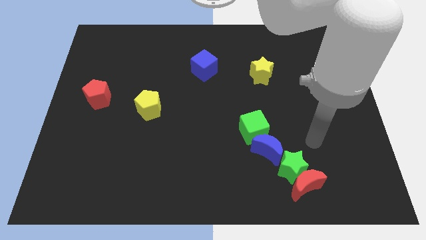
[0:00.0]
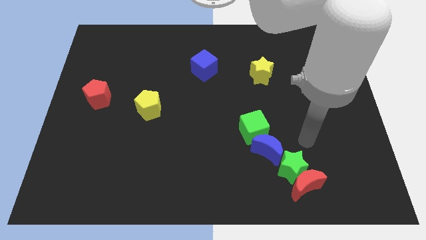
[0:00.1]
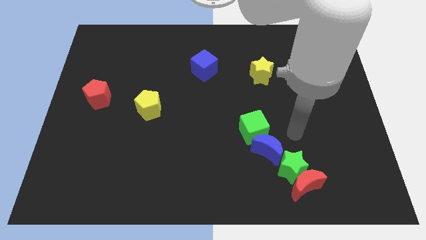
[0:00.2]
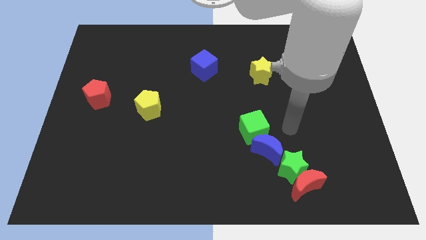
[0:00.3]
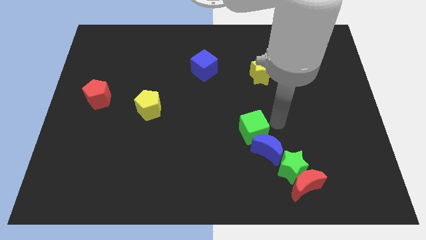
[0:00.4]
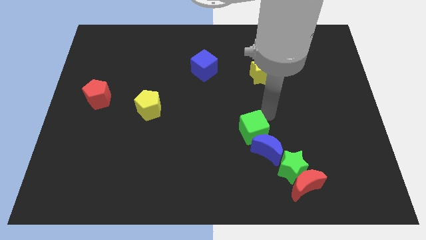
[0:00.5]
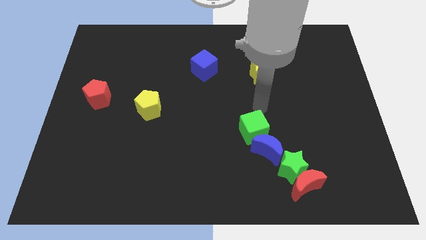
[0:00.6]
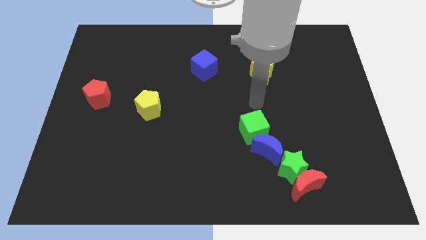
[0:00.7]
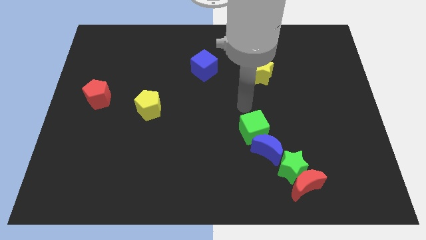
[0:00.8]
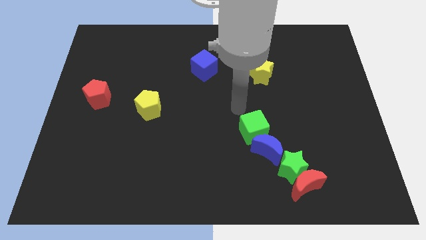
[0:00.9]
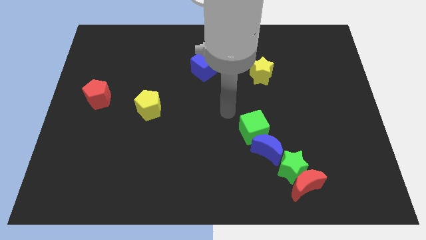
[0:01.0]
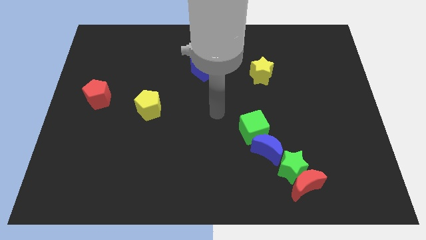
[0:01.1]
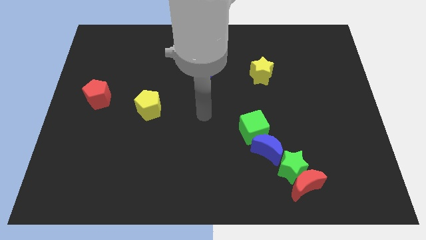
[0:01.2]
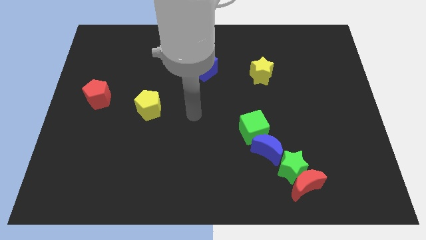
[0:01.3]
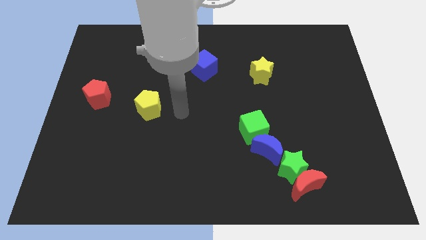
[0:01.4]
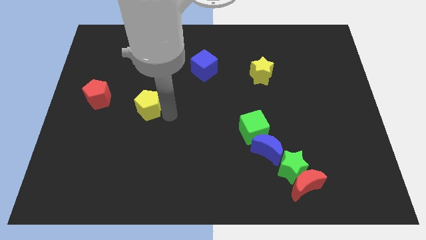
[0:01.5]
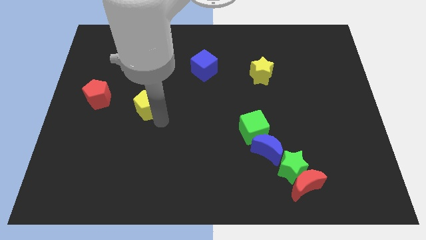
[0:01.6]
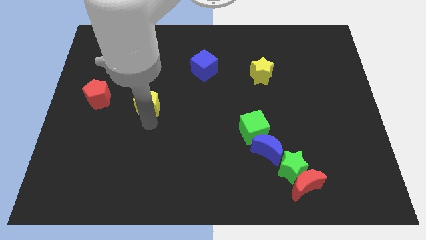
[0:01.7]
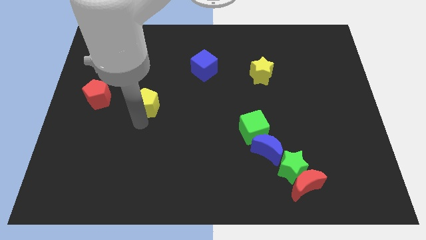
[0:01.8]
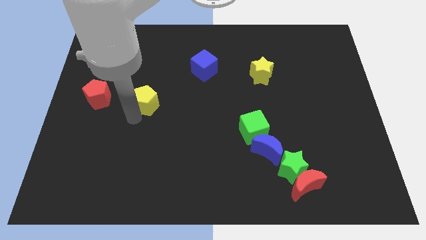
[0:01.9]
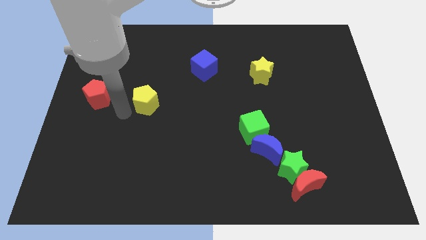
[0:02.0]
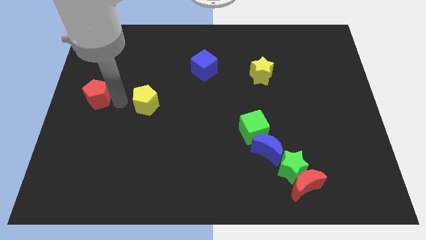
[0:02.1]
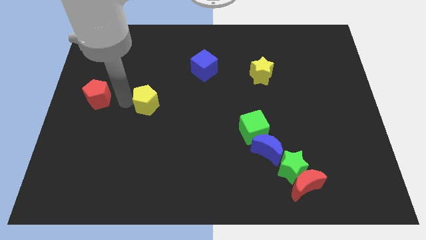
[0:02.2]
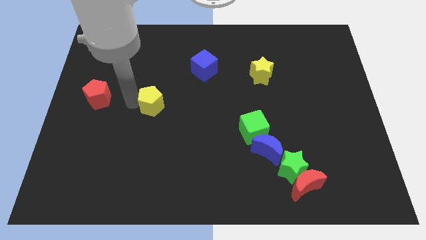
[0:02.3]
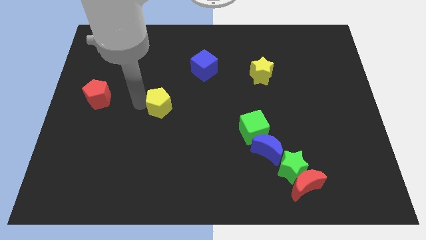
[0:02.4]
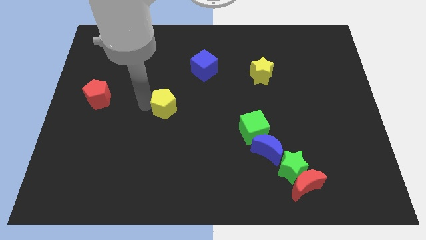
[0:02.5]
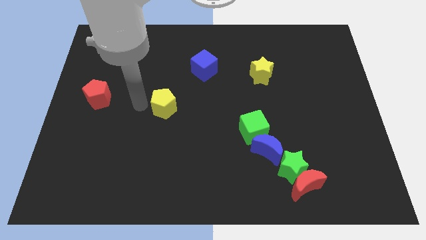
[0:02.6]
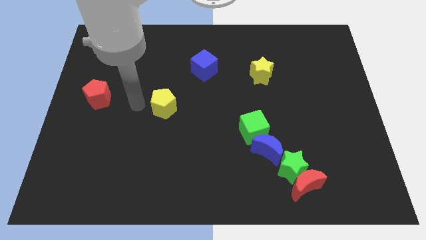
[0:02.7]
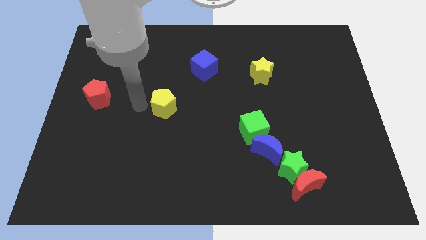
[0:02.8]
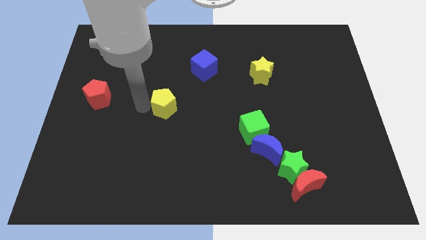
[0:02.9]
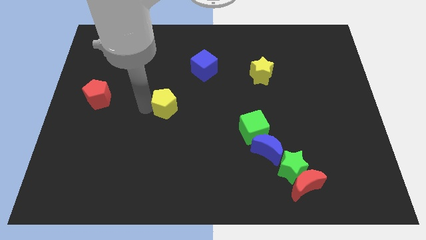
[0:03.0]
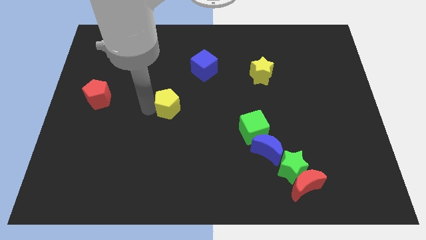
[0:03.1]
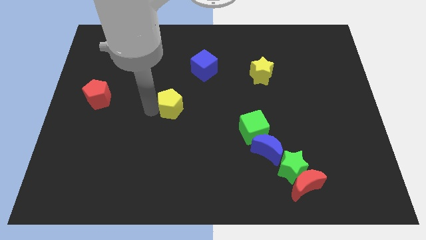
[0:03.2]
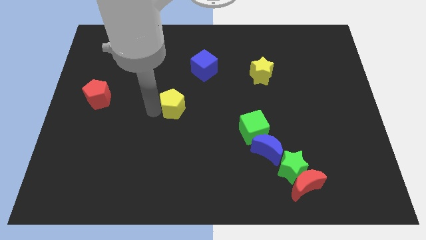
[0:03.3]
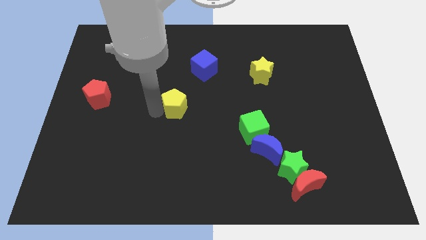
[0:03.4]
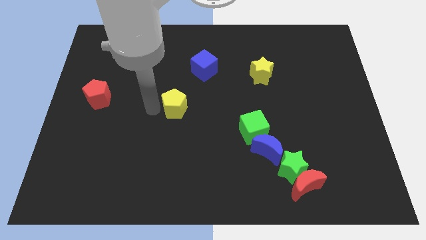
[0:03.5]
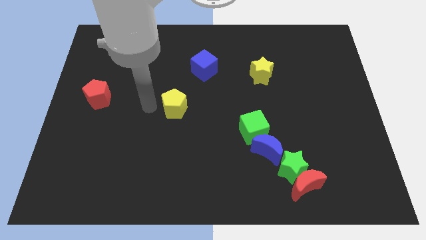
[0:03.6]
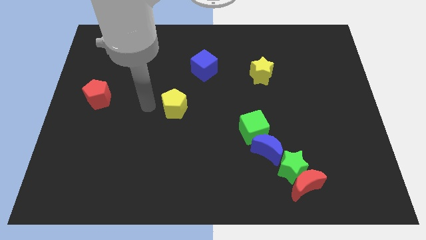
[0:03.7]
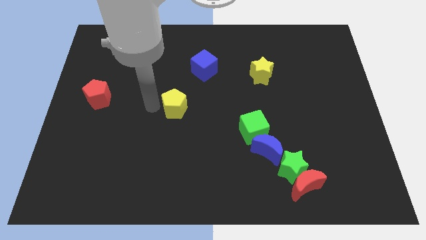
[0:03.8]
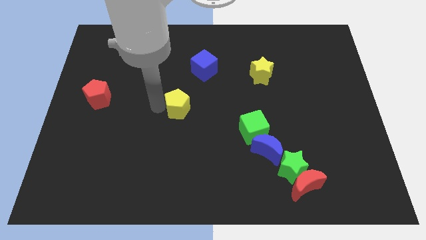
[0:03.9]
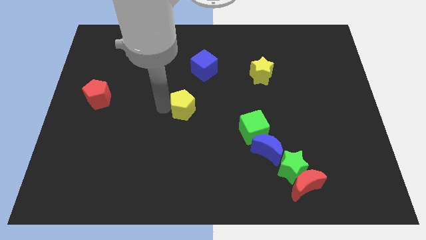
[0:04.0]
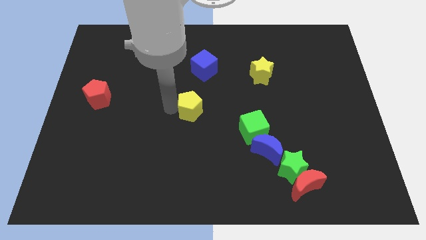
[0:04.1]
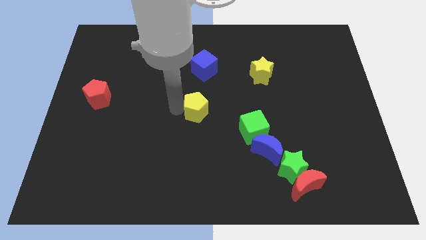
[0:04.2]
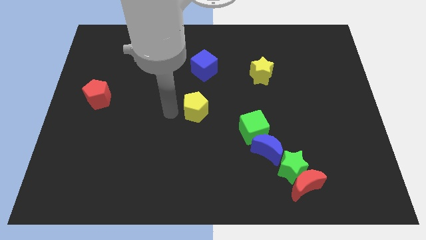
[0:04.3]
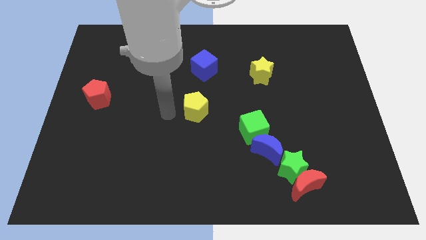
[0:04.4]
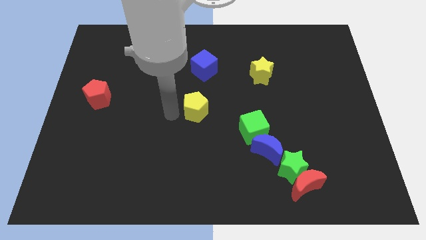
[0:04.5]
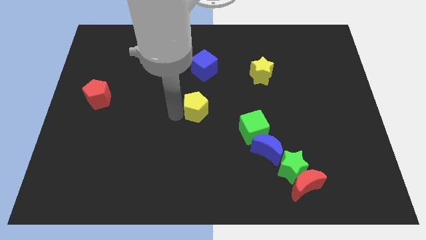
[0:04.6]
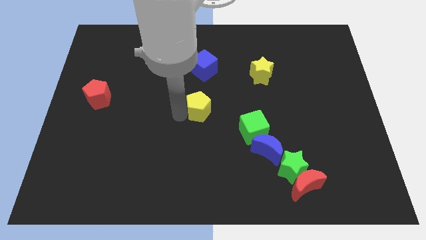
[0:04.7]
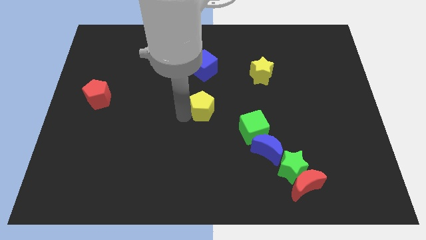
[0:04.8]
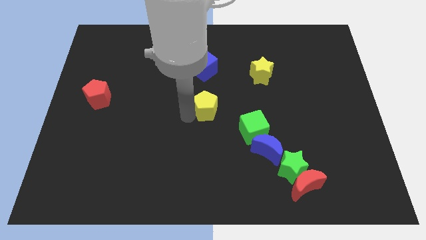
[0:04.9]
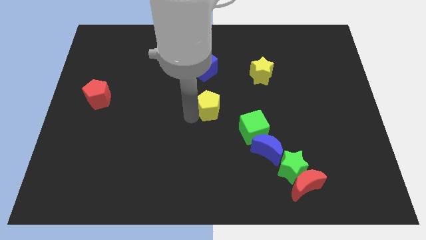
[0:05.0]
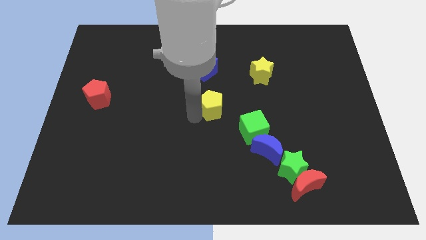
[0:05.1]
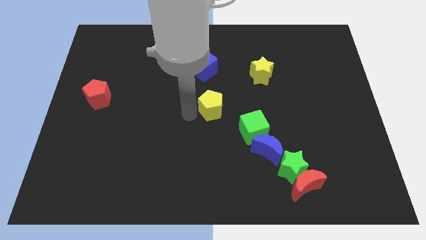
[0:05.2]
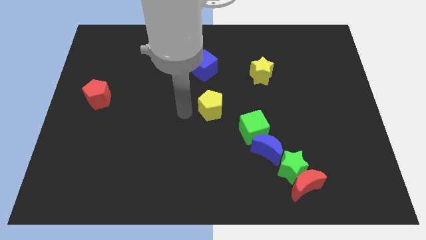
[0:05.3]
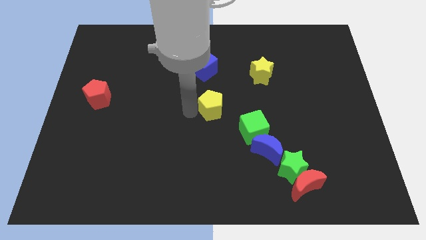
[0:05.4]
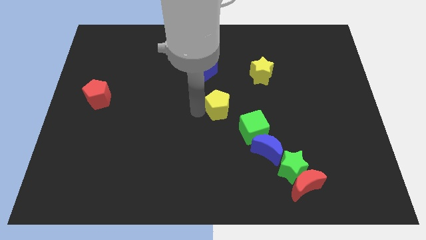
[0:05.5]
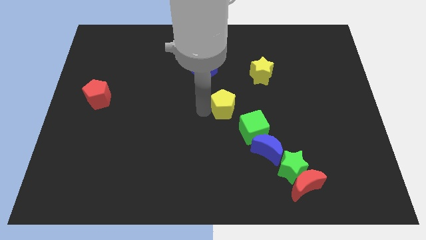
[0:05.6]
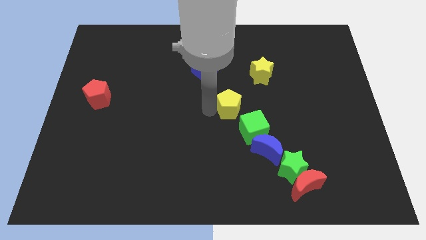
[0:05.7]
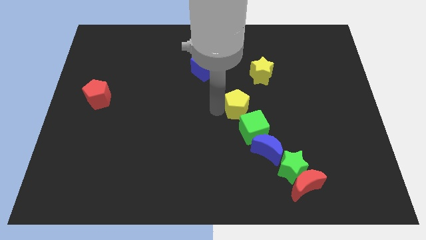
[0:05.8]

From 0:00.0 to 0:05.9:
slide the yellow pentagon to the right

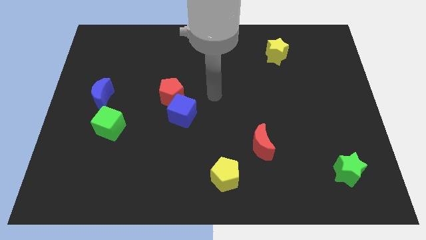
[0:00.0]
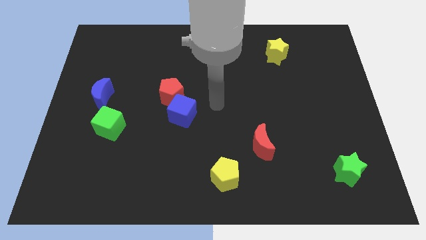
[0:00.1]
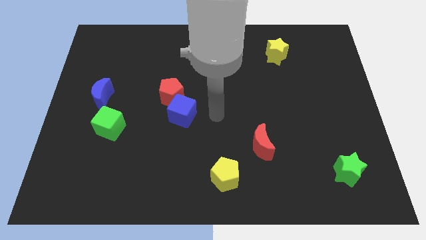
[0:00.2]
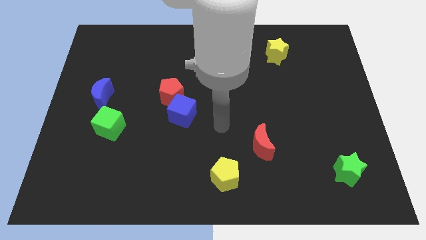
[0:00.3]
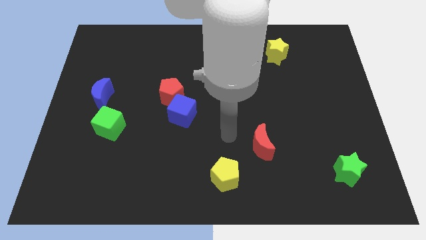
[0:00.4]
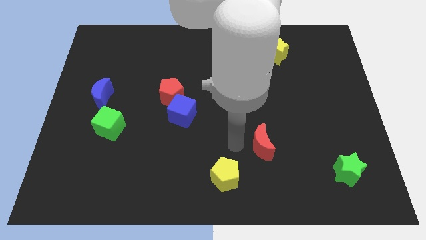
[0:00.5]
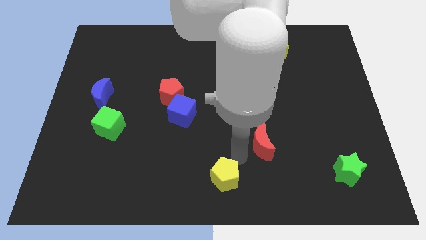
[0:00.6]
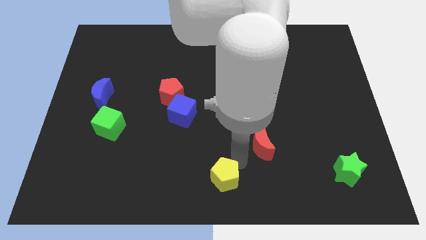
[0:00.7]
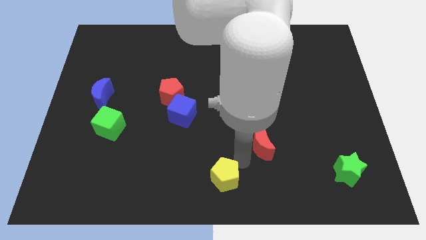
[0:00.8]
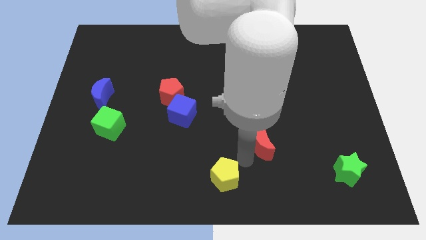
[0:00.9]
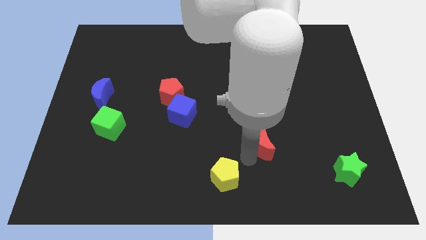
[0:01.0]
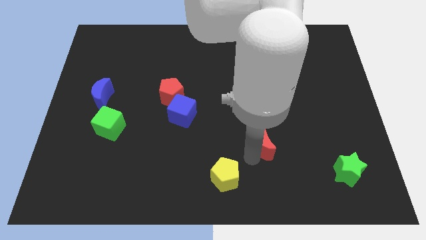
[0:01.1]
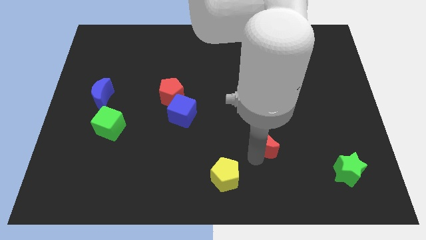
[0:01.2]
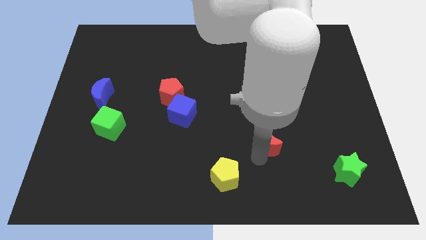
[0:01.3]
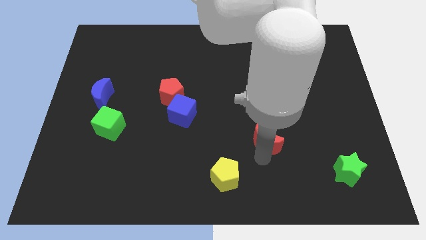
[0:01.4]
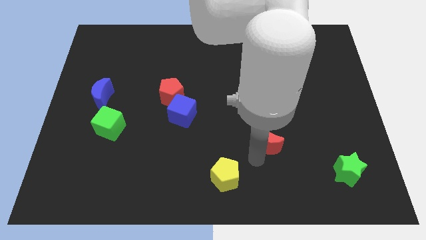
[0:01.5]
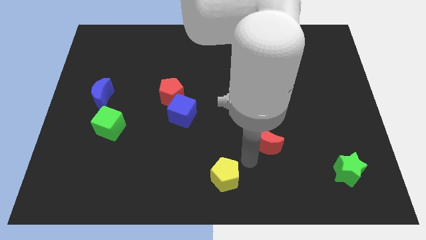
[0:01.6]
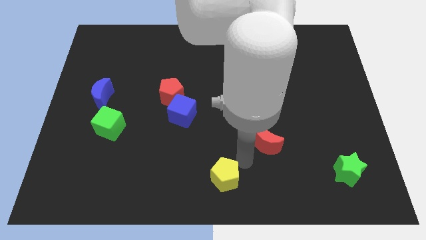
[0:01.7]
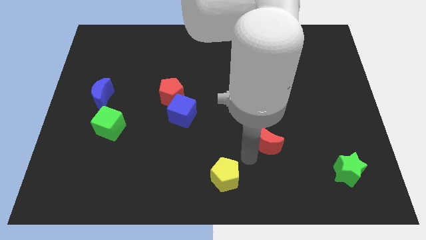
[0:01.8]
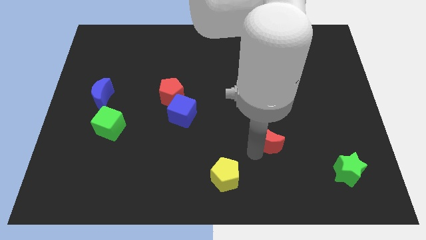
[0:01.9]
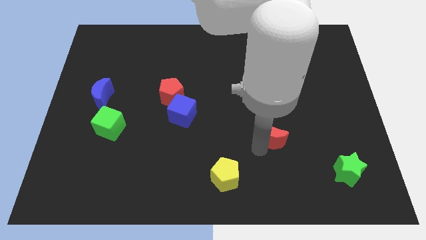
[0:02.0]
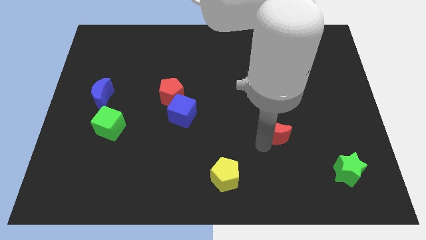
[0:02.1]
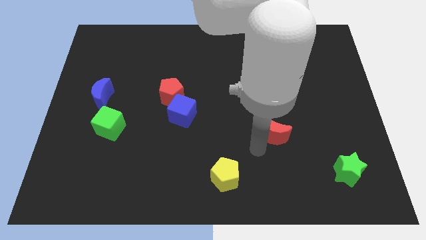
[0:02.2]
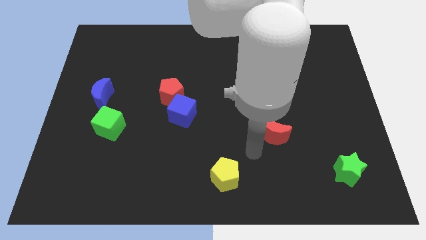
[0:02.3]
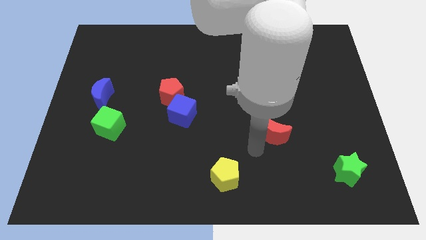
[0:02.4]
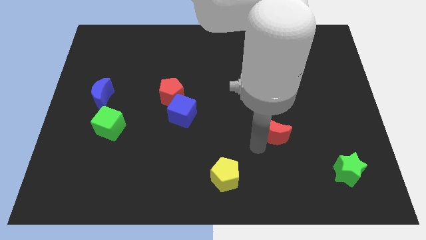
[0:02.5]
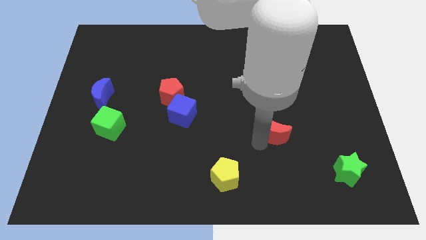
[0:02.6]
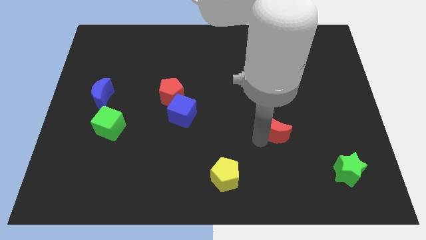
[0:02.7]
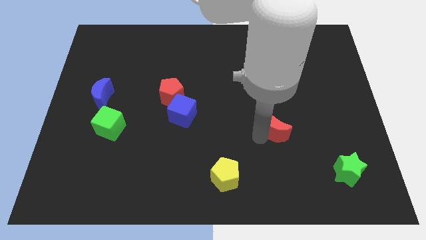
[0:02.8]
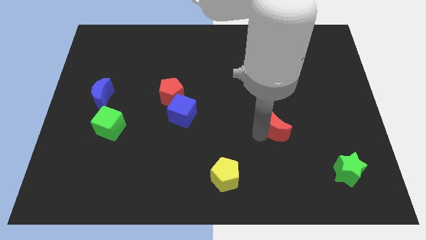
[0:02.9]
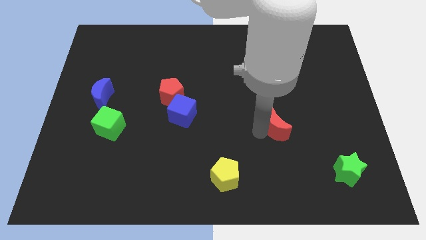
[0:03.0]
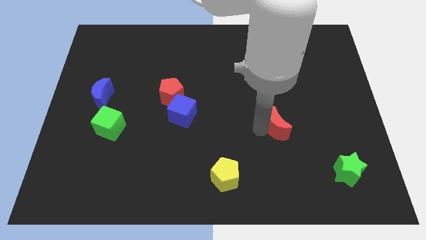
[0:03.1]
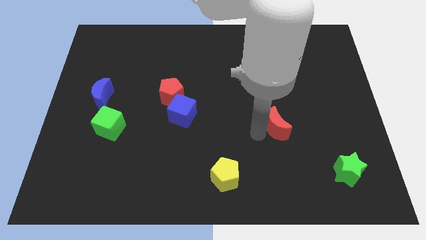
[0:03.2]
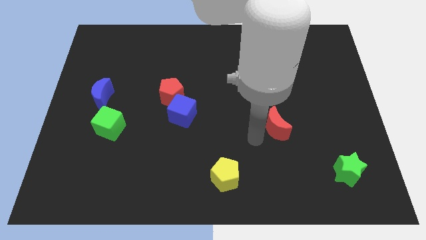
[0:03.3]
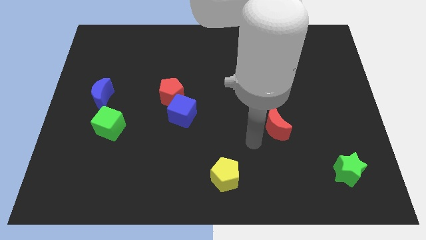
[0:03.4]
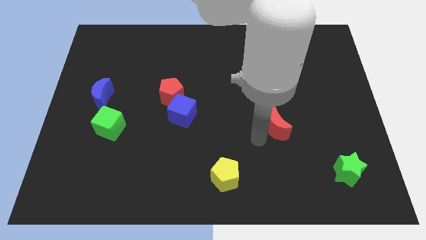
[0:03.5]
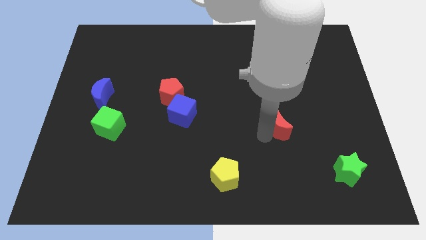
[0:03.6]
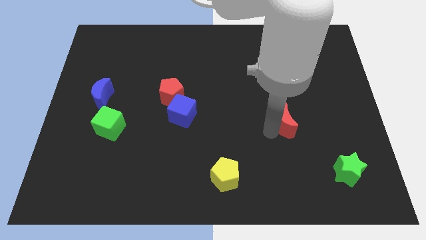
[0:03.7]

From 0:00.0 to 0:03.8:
slightly push the red moon up and right diagonally
